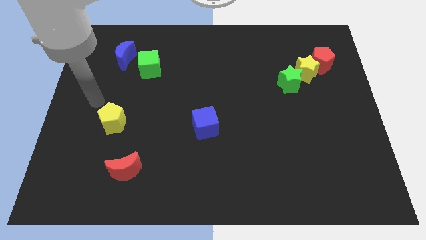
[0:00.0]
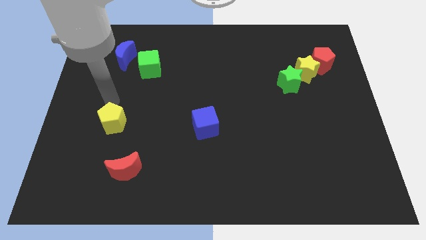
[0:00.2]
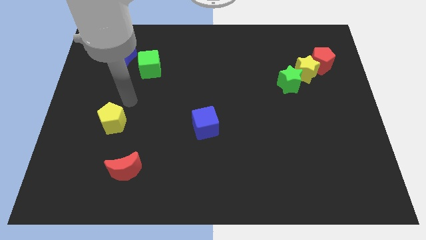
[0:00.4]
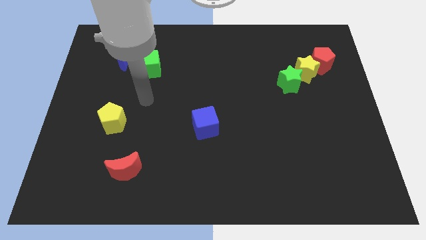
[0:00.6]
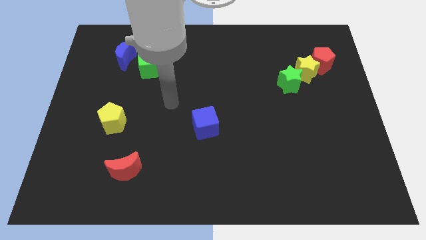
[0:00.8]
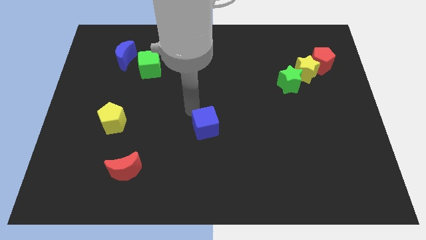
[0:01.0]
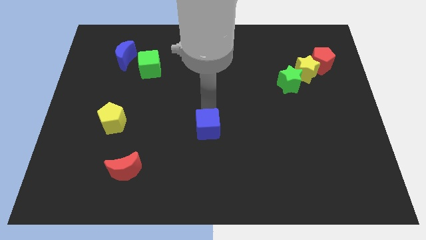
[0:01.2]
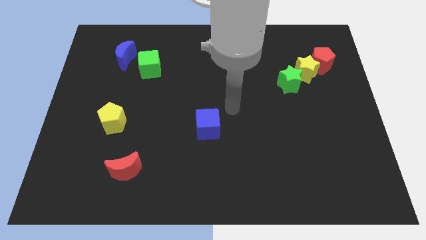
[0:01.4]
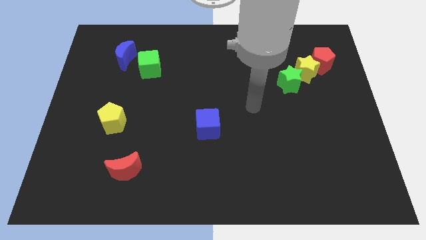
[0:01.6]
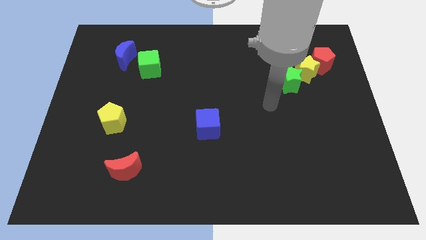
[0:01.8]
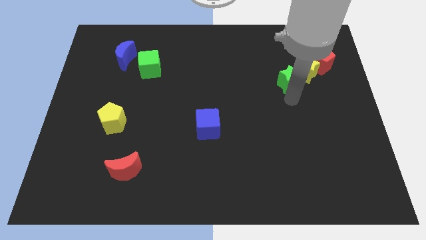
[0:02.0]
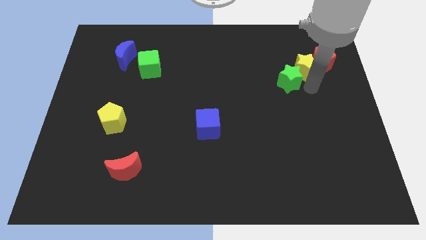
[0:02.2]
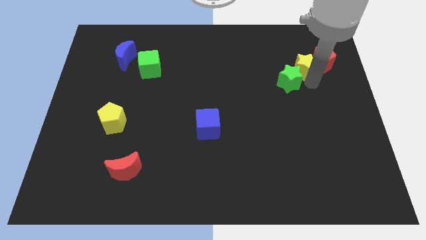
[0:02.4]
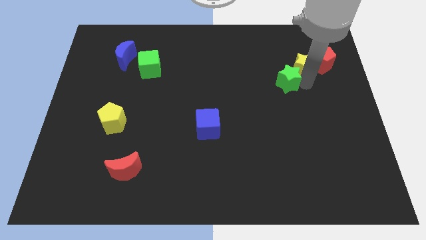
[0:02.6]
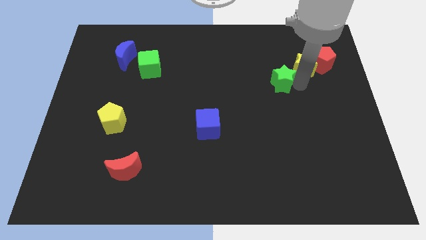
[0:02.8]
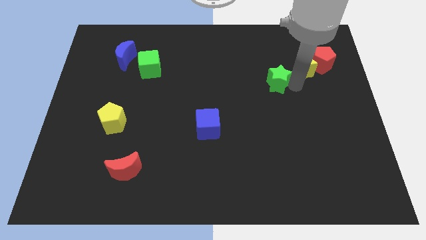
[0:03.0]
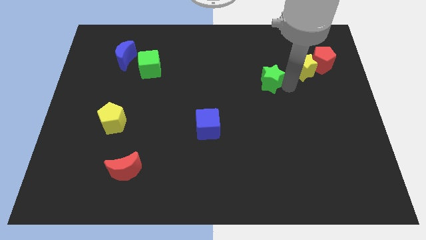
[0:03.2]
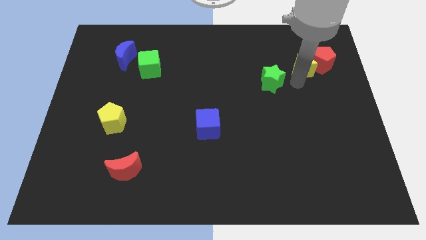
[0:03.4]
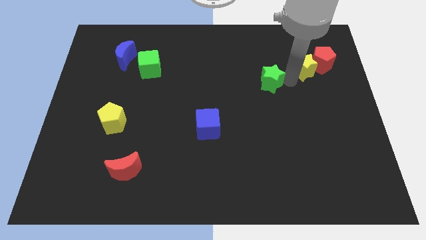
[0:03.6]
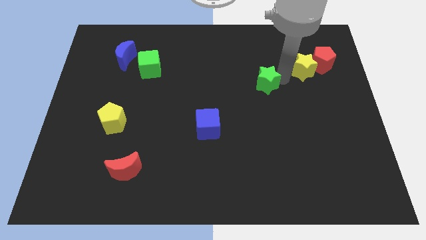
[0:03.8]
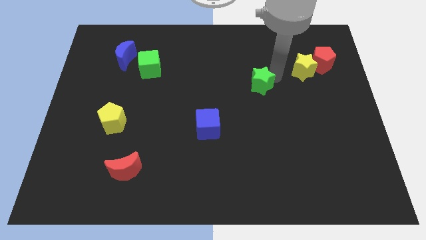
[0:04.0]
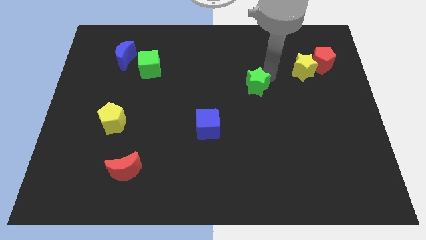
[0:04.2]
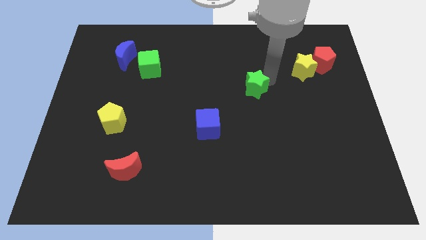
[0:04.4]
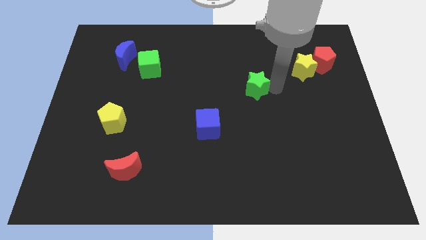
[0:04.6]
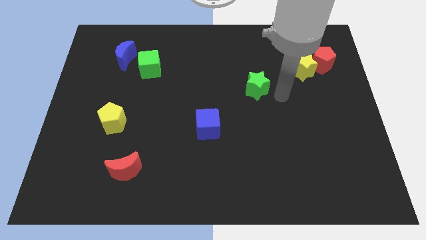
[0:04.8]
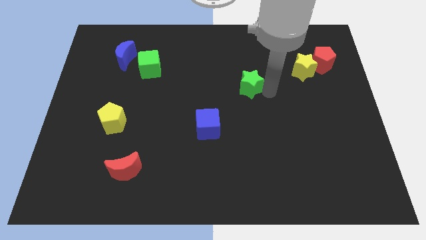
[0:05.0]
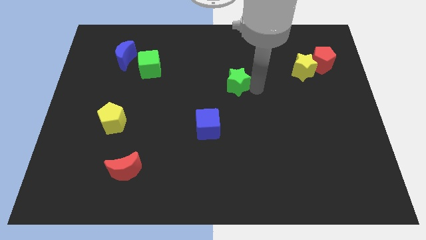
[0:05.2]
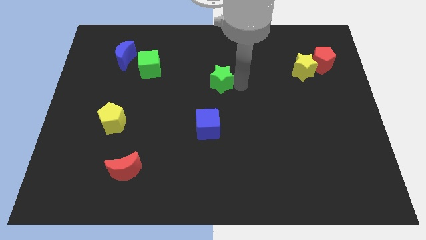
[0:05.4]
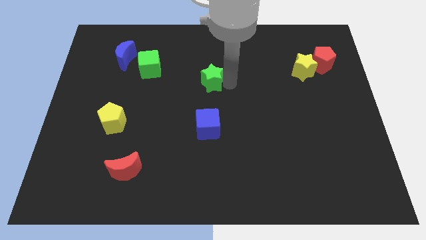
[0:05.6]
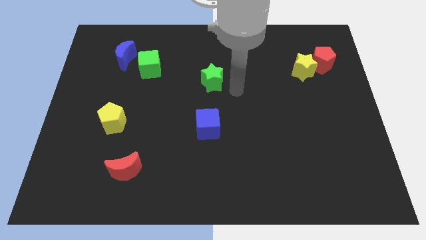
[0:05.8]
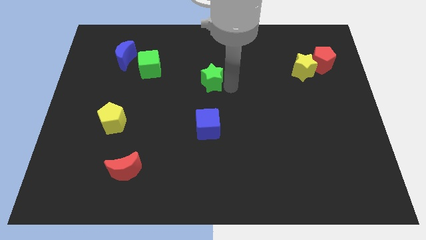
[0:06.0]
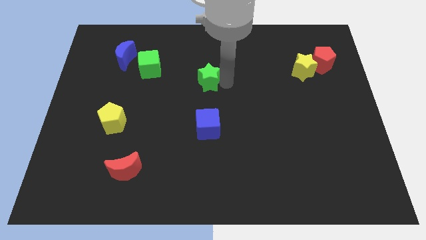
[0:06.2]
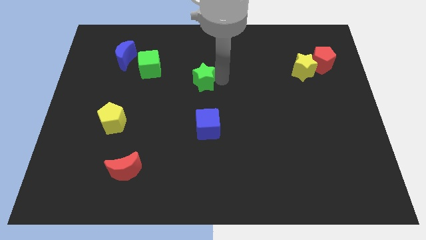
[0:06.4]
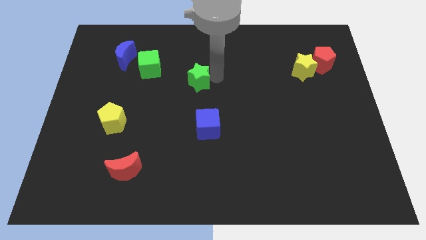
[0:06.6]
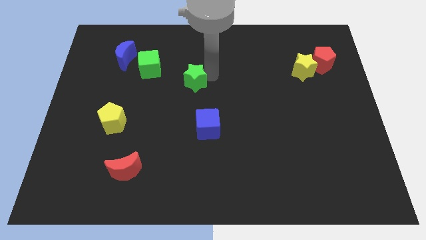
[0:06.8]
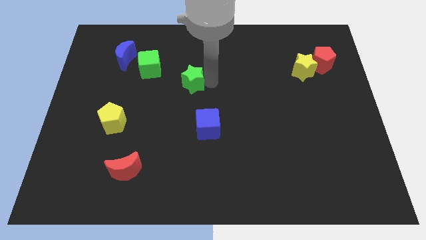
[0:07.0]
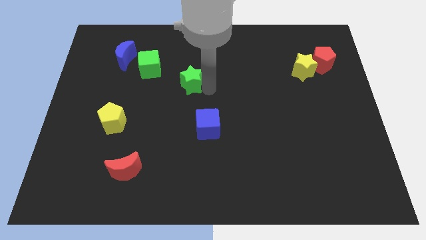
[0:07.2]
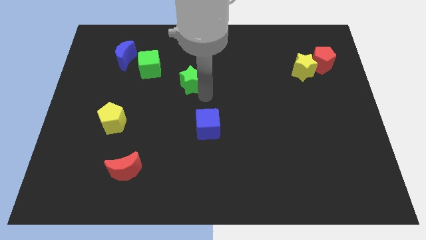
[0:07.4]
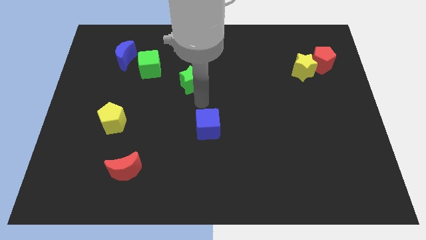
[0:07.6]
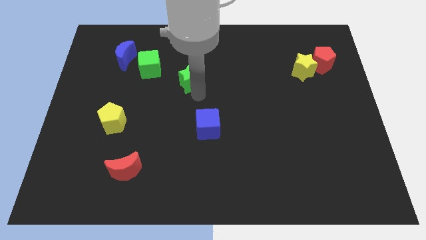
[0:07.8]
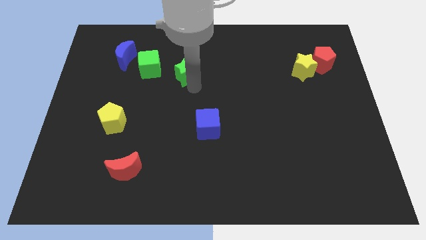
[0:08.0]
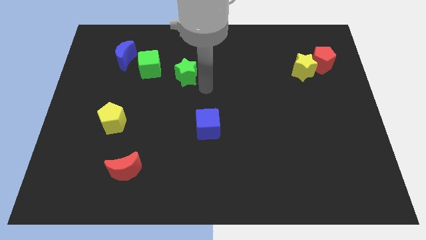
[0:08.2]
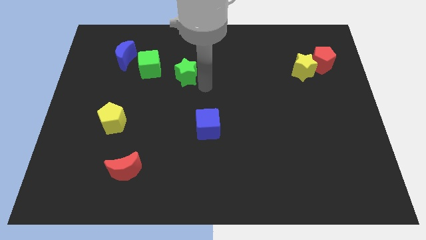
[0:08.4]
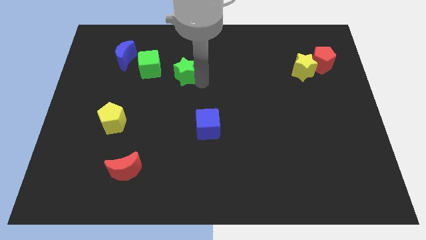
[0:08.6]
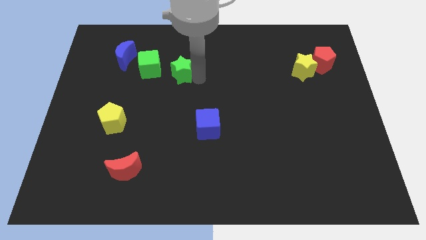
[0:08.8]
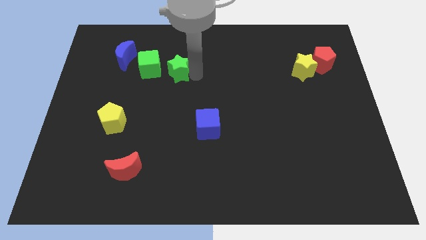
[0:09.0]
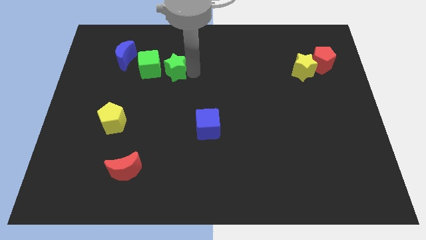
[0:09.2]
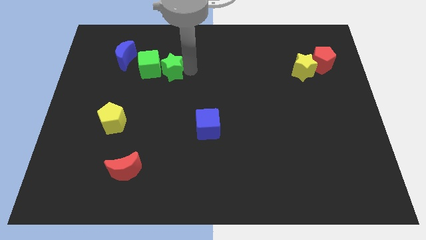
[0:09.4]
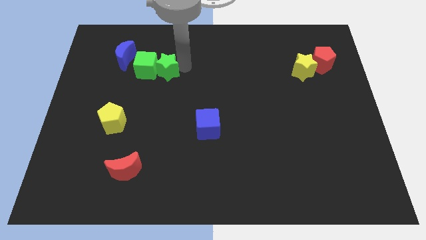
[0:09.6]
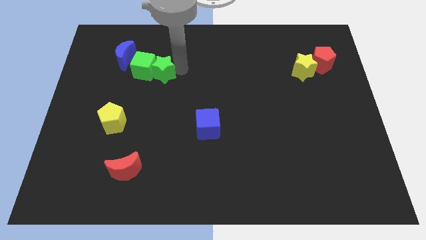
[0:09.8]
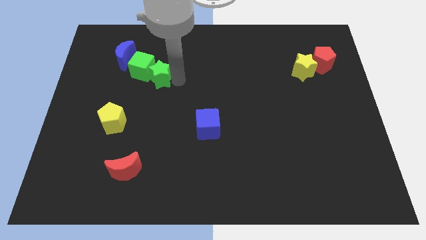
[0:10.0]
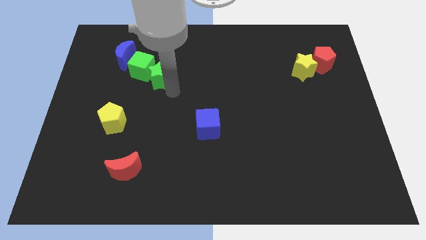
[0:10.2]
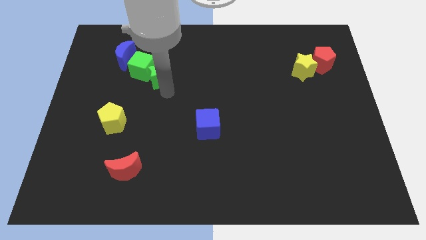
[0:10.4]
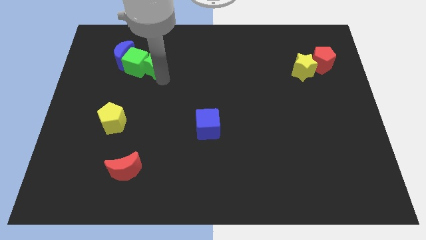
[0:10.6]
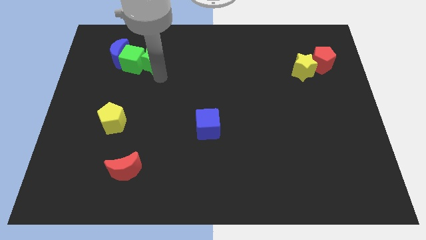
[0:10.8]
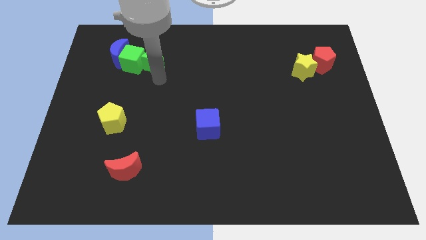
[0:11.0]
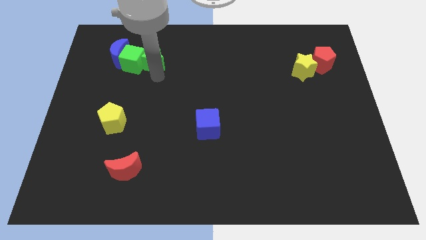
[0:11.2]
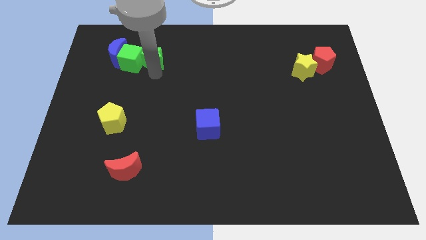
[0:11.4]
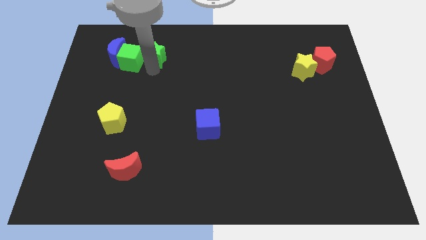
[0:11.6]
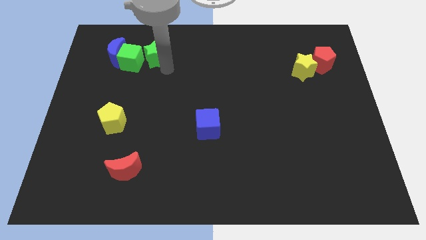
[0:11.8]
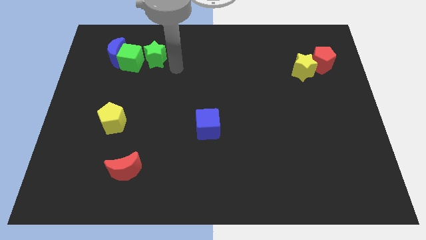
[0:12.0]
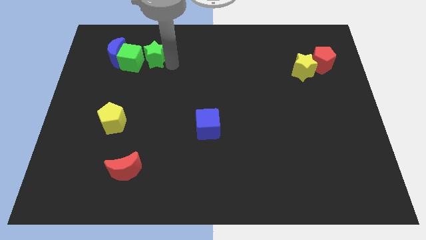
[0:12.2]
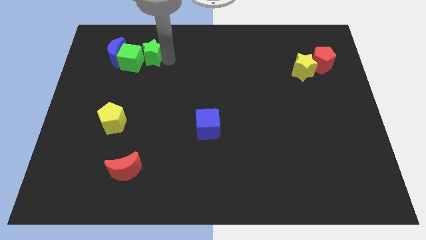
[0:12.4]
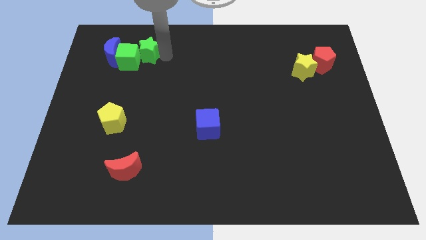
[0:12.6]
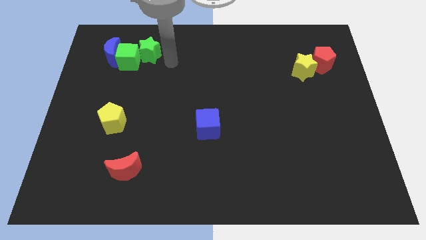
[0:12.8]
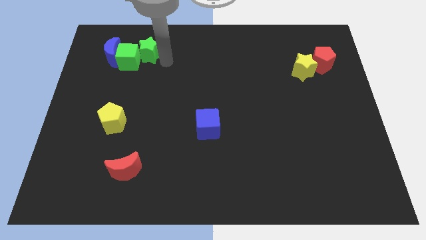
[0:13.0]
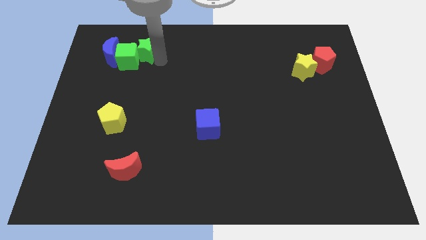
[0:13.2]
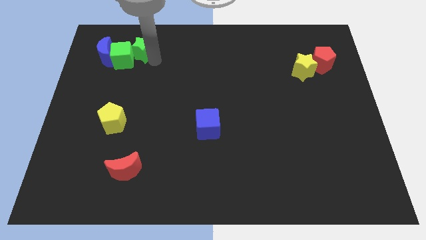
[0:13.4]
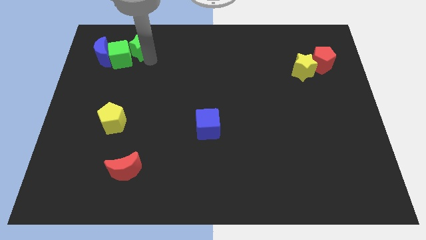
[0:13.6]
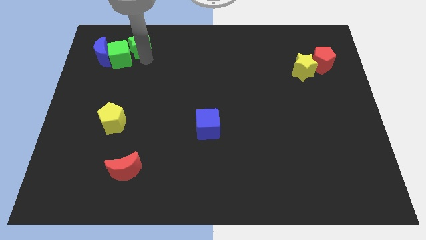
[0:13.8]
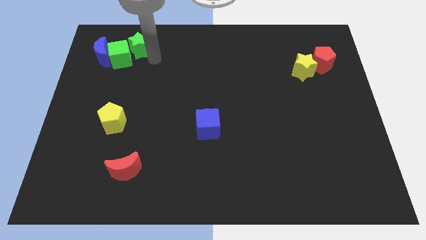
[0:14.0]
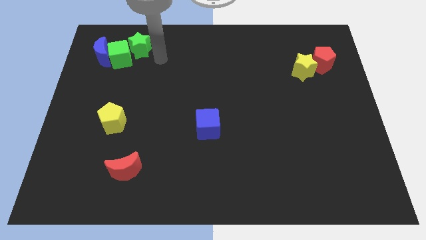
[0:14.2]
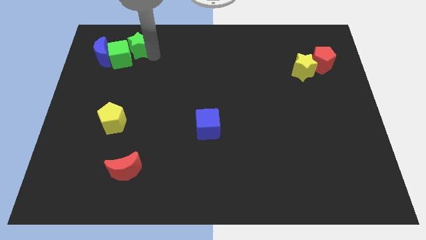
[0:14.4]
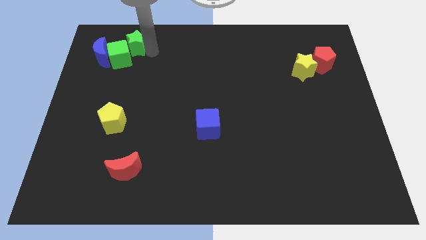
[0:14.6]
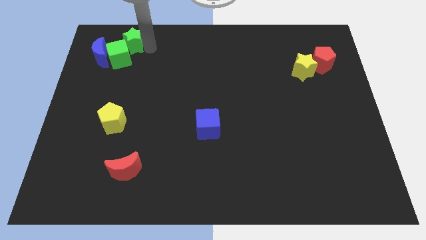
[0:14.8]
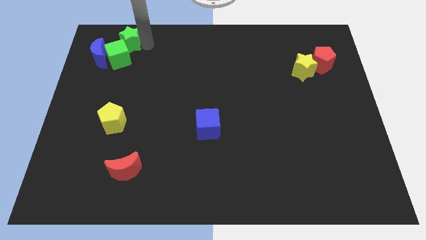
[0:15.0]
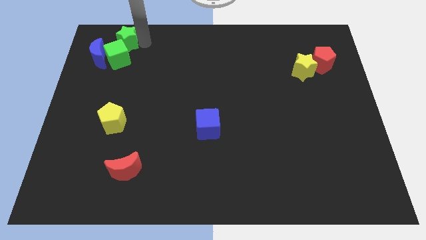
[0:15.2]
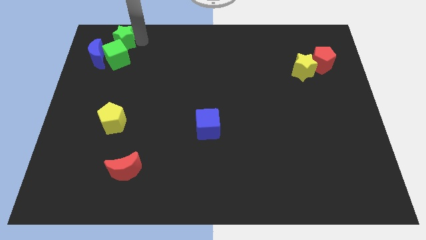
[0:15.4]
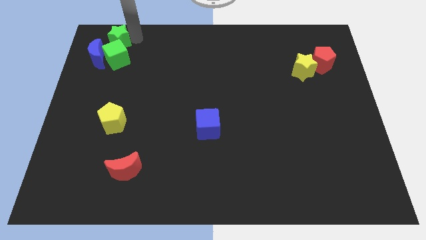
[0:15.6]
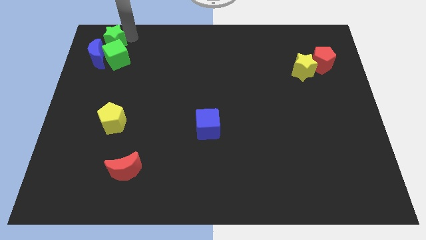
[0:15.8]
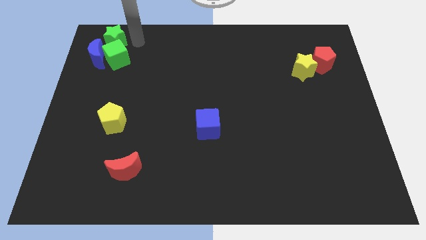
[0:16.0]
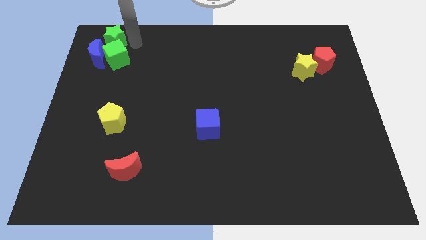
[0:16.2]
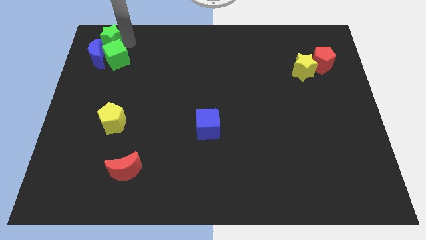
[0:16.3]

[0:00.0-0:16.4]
slide the green star to the top left
